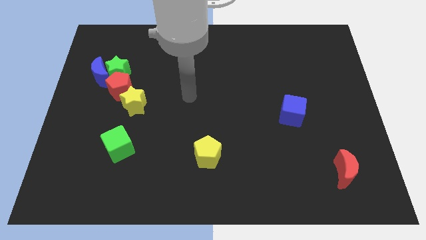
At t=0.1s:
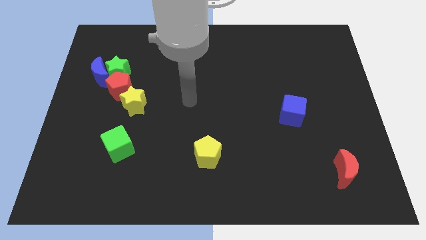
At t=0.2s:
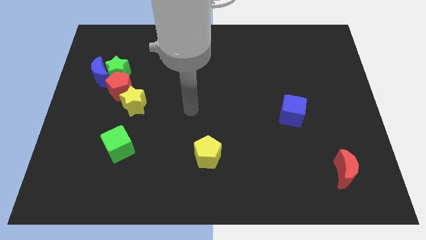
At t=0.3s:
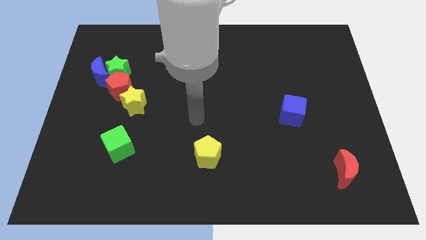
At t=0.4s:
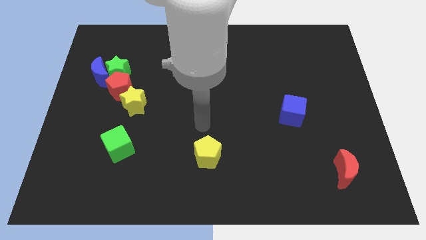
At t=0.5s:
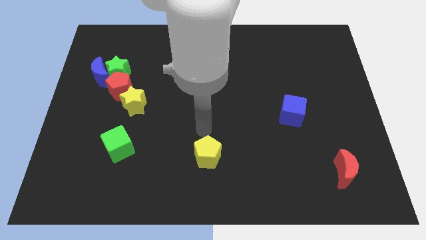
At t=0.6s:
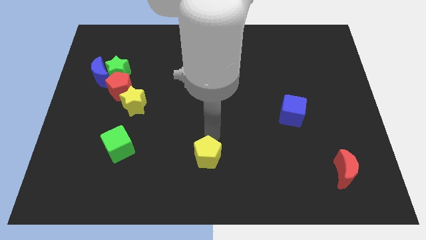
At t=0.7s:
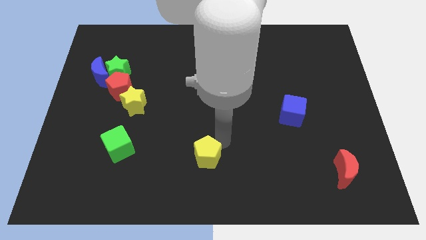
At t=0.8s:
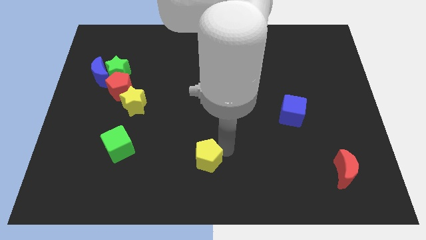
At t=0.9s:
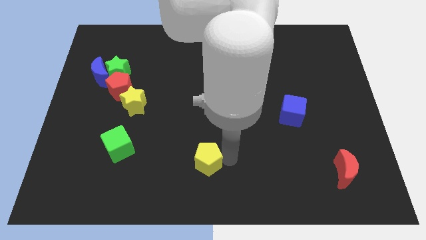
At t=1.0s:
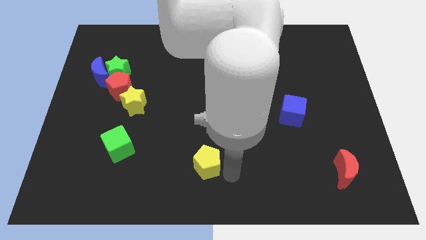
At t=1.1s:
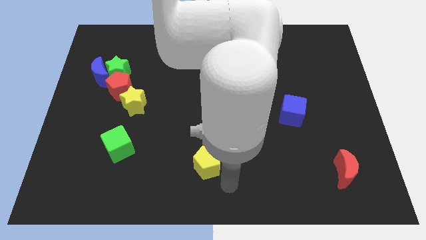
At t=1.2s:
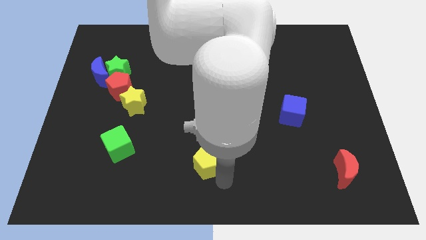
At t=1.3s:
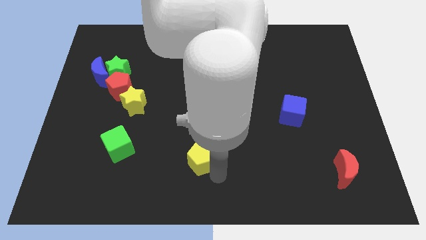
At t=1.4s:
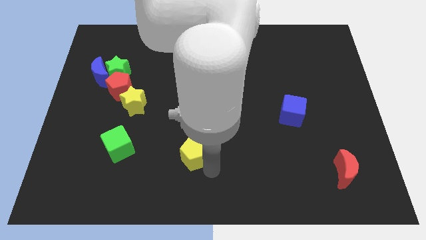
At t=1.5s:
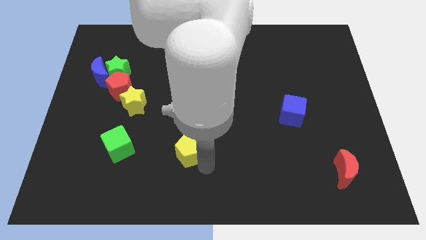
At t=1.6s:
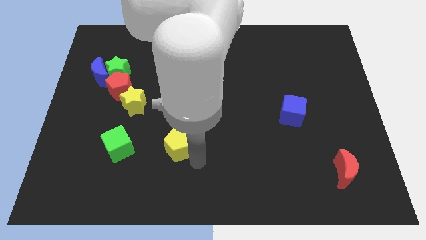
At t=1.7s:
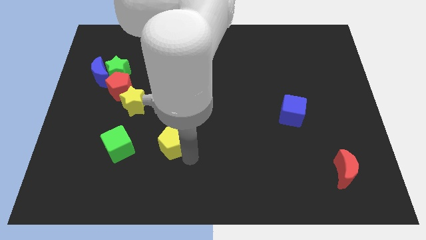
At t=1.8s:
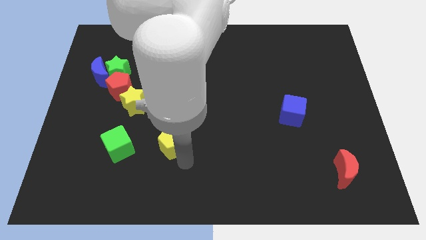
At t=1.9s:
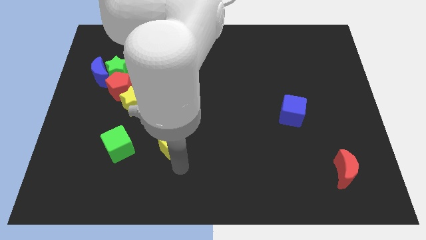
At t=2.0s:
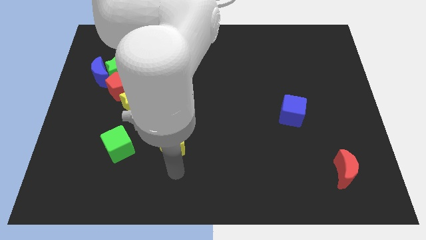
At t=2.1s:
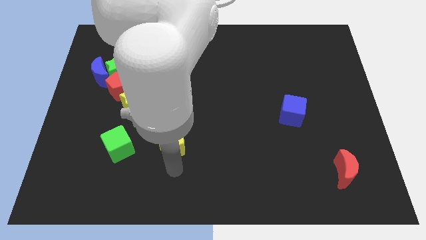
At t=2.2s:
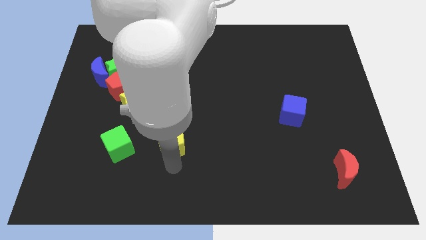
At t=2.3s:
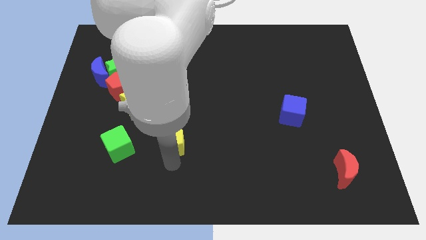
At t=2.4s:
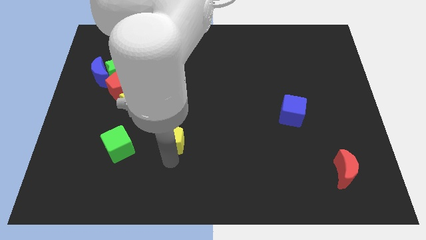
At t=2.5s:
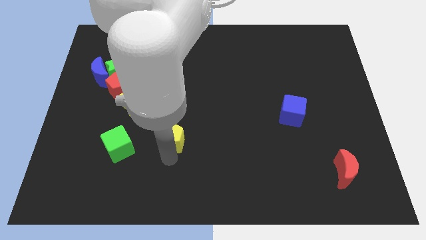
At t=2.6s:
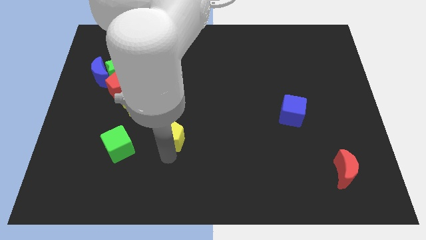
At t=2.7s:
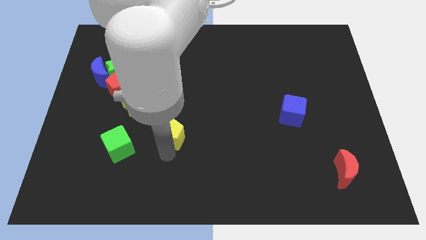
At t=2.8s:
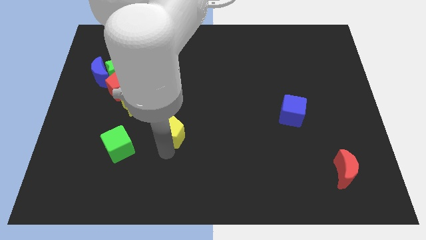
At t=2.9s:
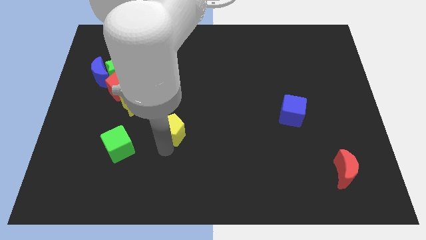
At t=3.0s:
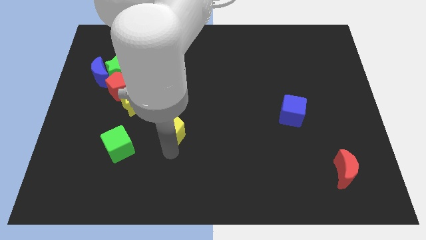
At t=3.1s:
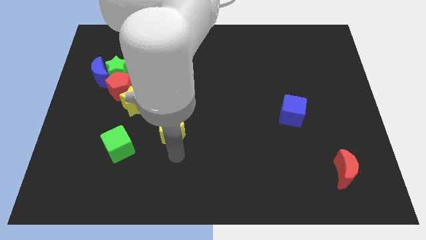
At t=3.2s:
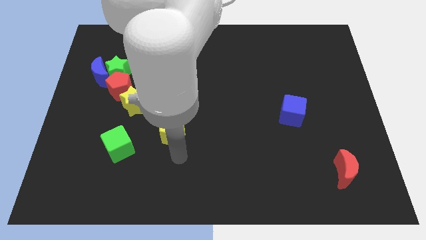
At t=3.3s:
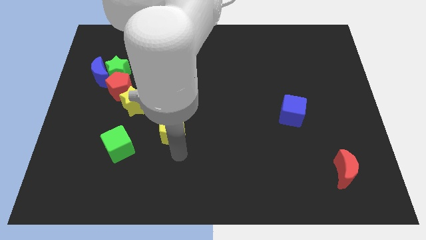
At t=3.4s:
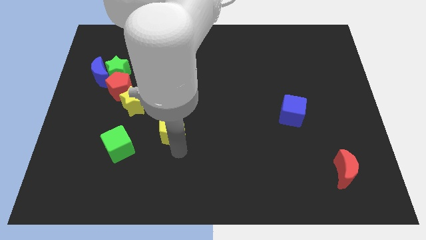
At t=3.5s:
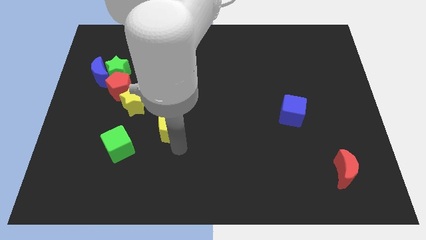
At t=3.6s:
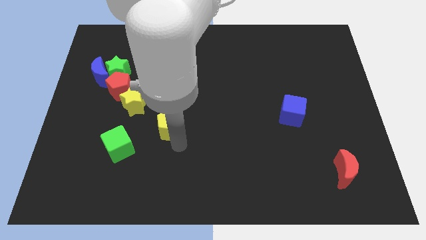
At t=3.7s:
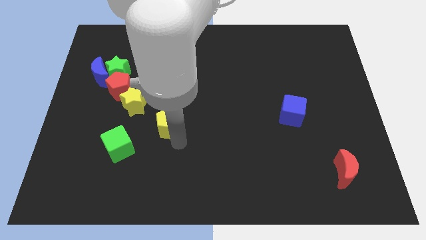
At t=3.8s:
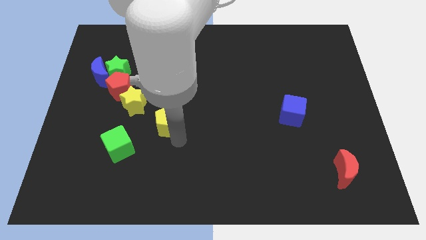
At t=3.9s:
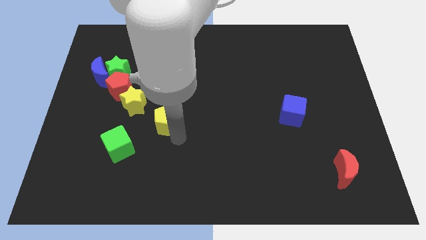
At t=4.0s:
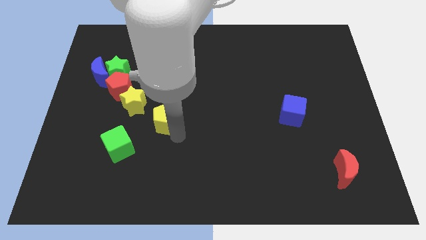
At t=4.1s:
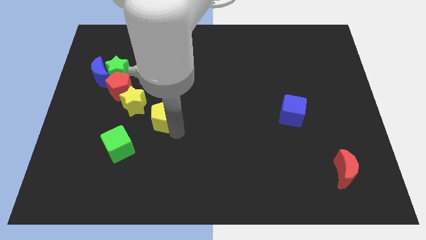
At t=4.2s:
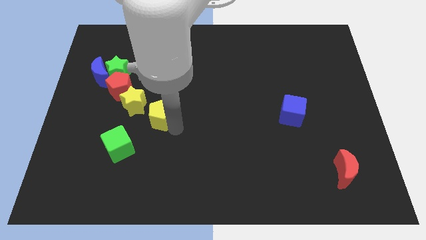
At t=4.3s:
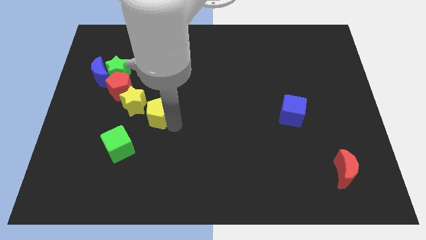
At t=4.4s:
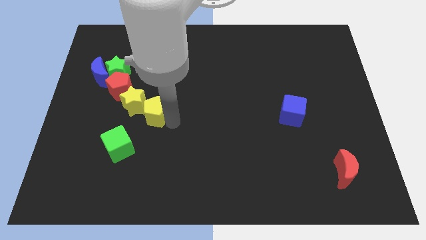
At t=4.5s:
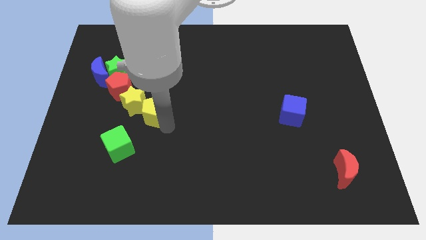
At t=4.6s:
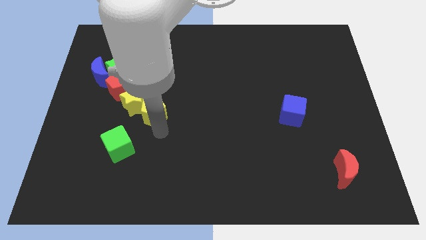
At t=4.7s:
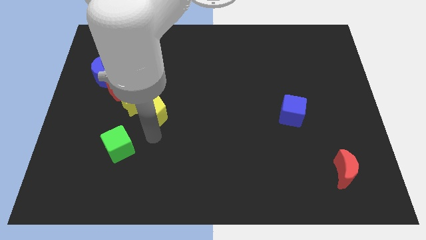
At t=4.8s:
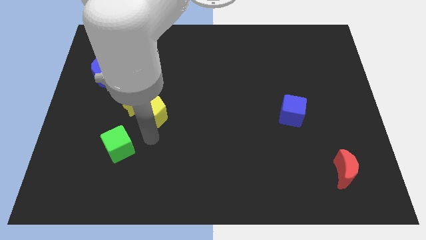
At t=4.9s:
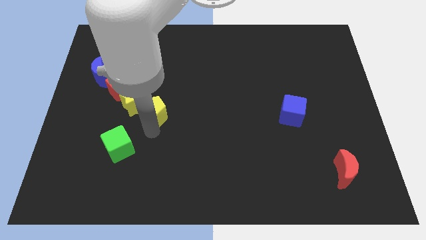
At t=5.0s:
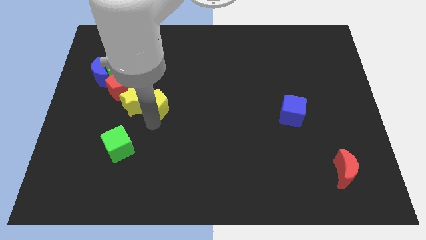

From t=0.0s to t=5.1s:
move the yellow pentagon to the top right of the yellow star

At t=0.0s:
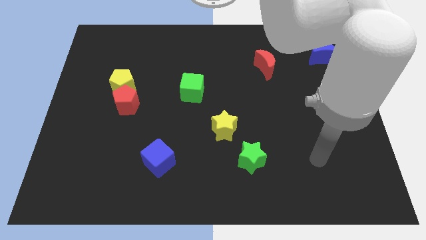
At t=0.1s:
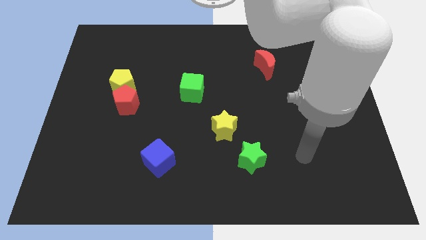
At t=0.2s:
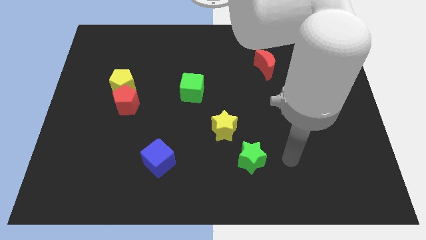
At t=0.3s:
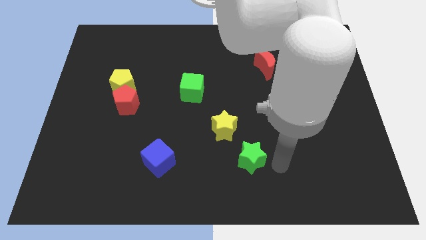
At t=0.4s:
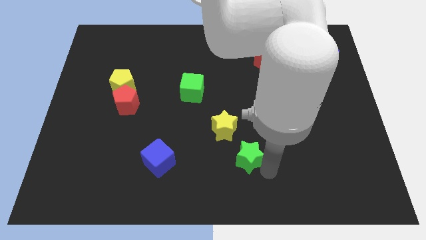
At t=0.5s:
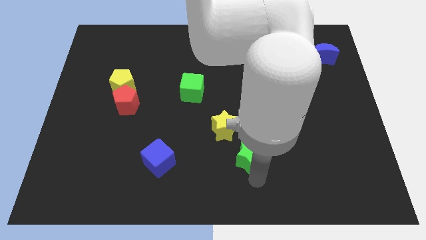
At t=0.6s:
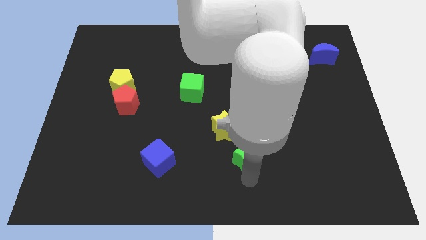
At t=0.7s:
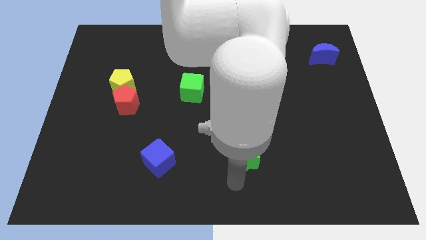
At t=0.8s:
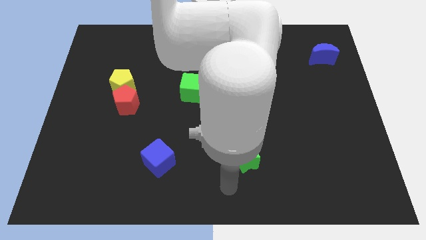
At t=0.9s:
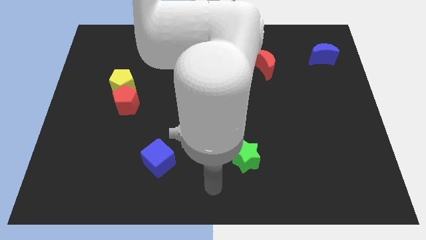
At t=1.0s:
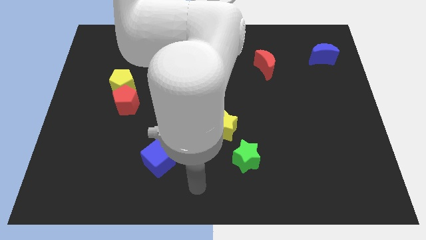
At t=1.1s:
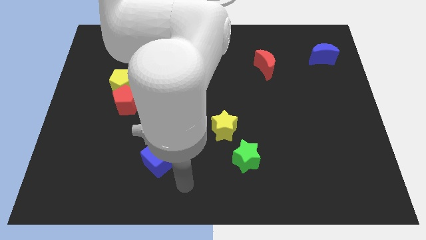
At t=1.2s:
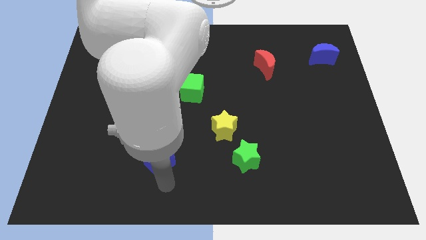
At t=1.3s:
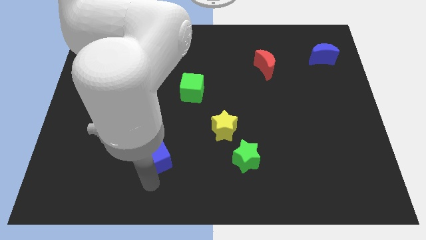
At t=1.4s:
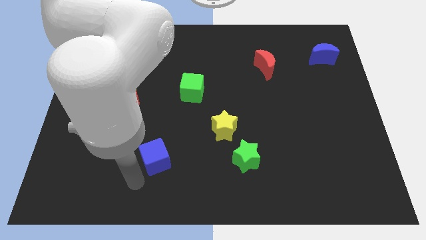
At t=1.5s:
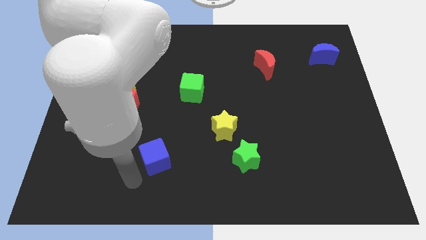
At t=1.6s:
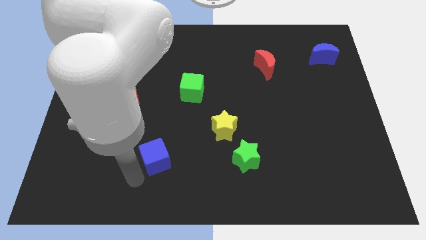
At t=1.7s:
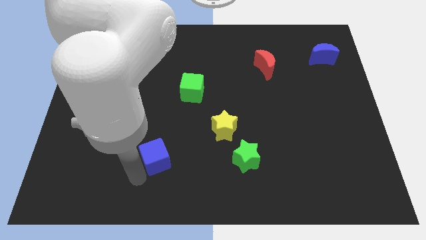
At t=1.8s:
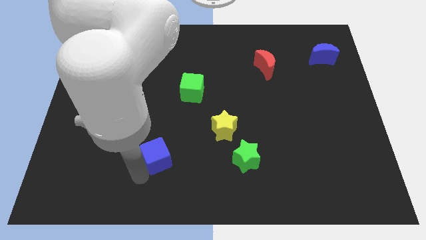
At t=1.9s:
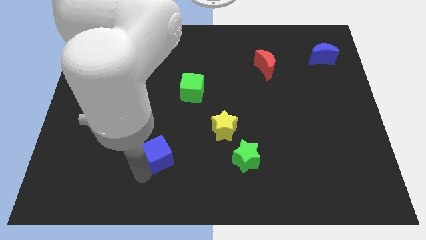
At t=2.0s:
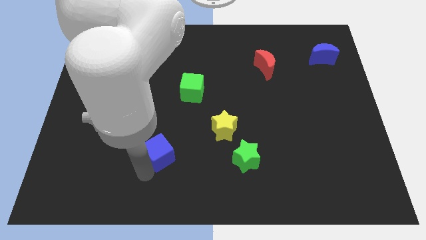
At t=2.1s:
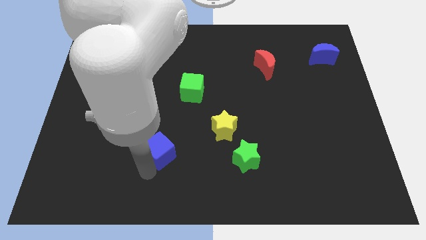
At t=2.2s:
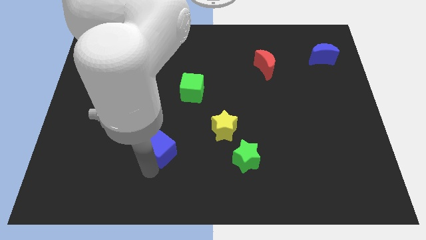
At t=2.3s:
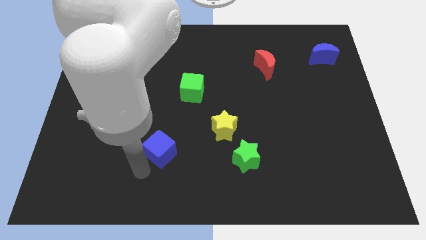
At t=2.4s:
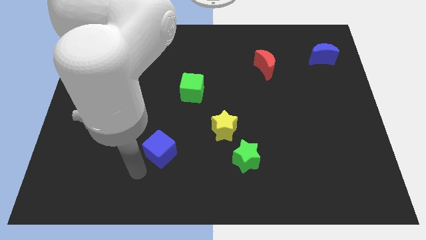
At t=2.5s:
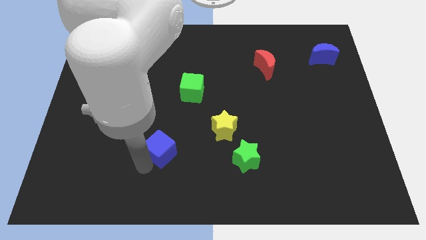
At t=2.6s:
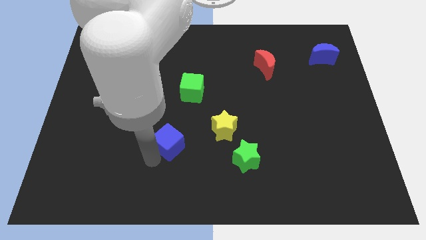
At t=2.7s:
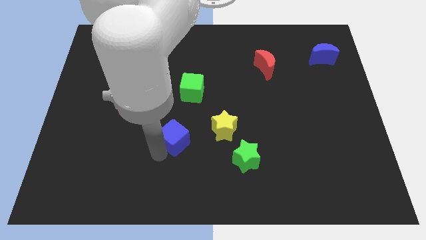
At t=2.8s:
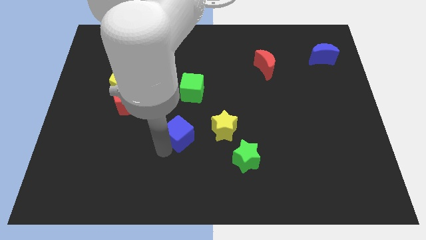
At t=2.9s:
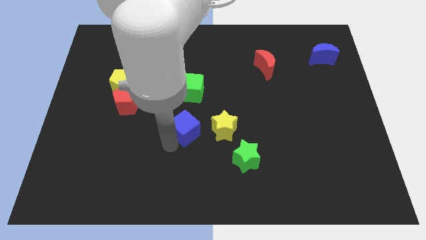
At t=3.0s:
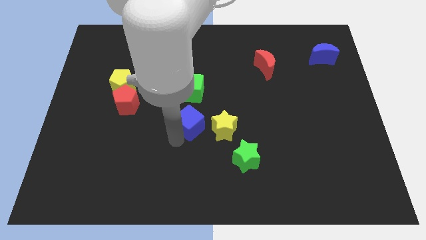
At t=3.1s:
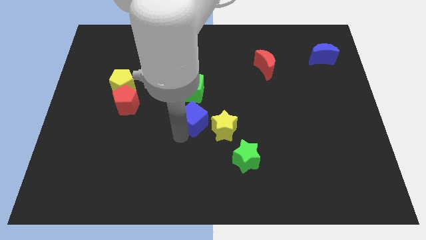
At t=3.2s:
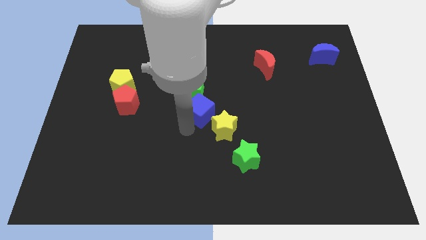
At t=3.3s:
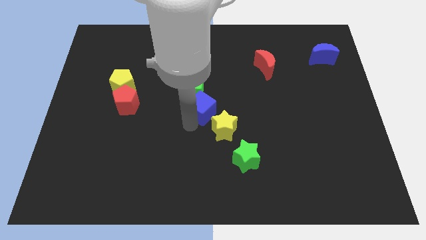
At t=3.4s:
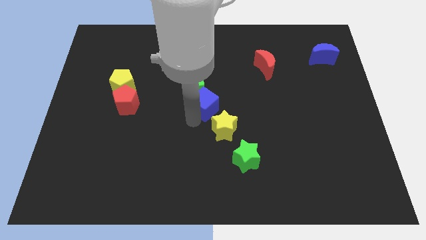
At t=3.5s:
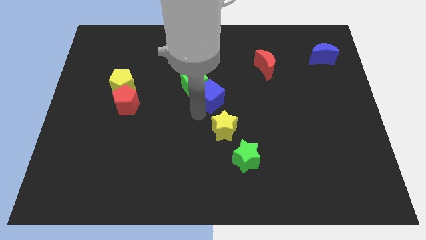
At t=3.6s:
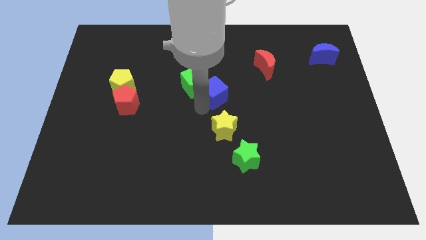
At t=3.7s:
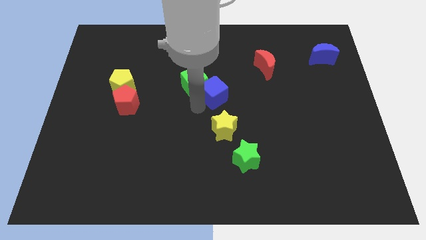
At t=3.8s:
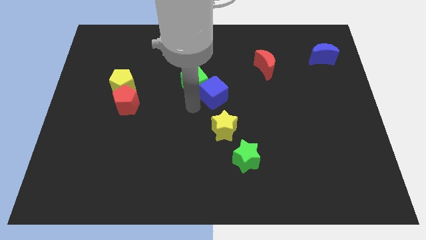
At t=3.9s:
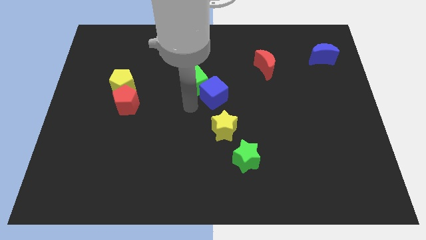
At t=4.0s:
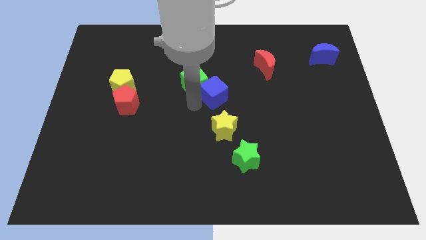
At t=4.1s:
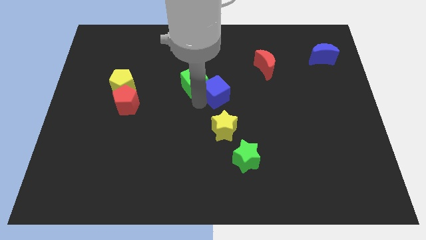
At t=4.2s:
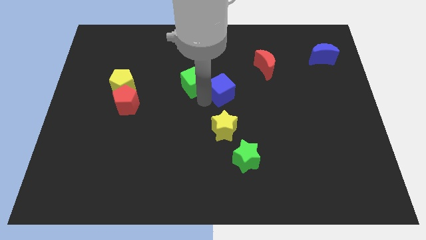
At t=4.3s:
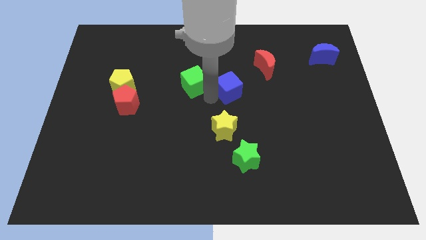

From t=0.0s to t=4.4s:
move the blue cube diagonally down and to the left of the red moon
